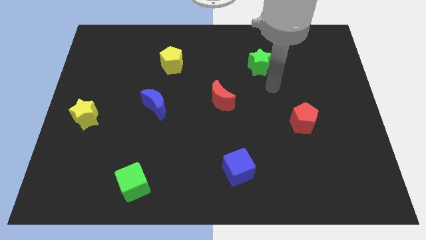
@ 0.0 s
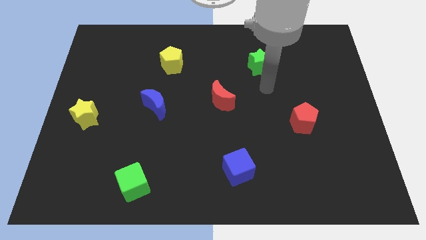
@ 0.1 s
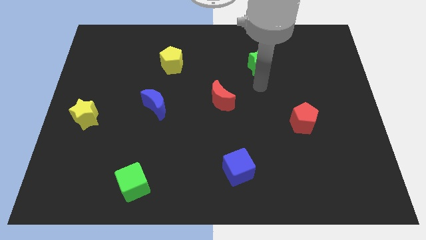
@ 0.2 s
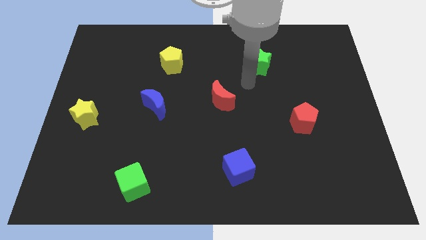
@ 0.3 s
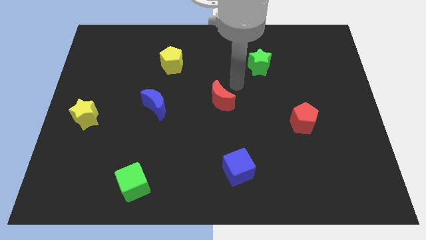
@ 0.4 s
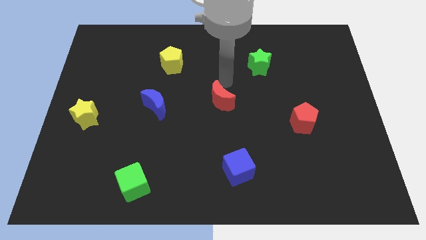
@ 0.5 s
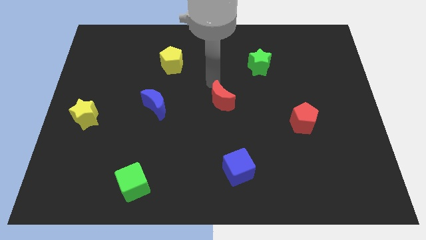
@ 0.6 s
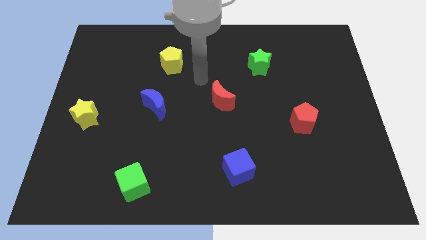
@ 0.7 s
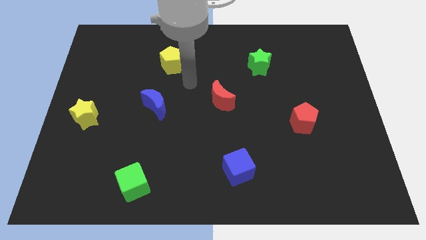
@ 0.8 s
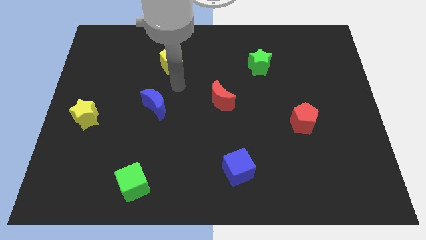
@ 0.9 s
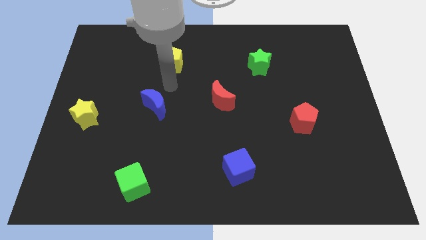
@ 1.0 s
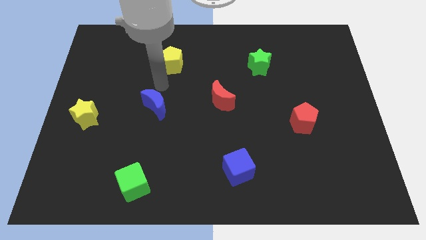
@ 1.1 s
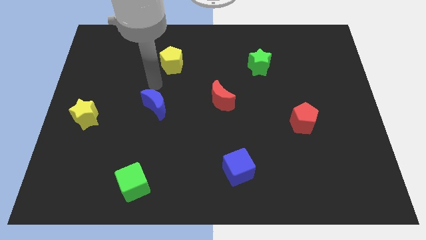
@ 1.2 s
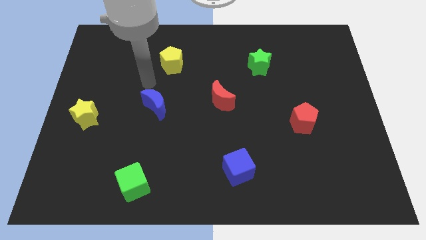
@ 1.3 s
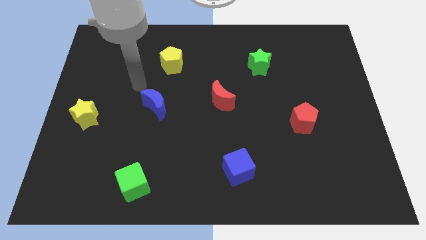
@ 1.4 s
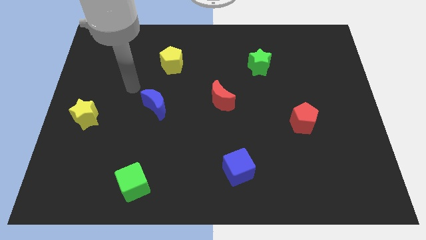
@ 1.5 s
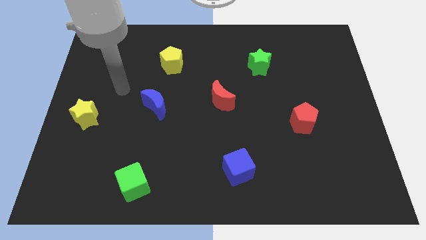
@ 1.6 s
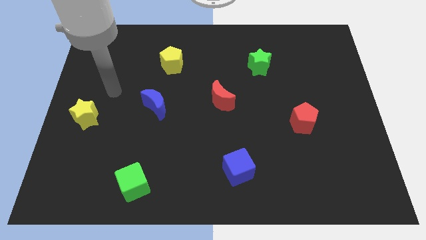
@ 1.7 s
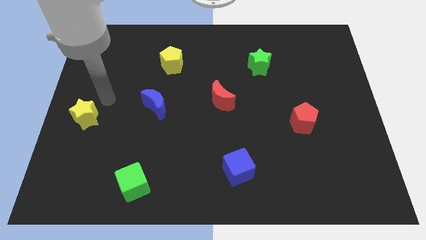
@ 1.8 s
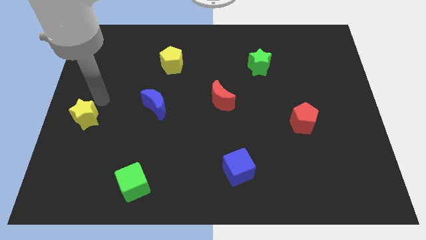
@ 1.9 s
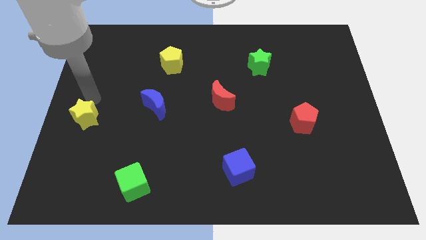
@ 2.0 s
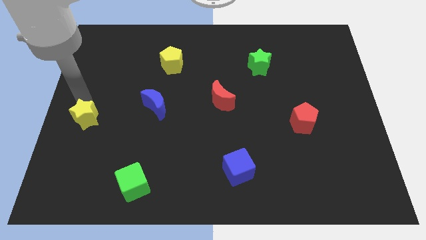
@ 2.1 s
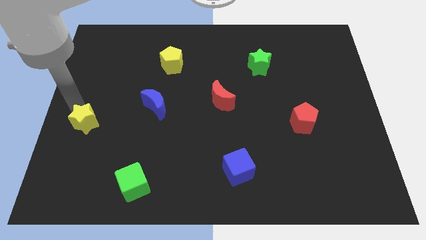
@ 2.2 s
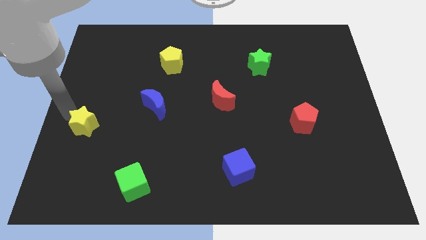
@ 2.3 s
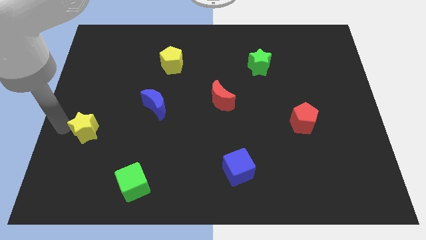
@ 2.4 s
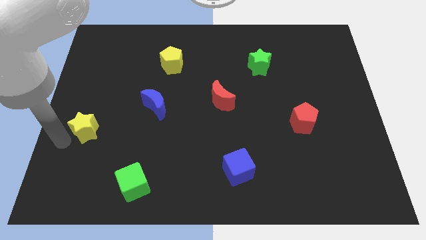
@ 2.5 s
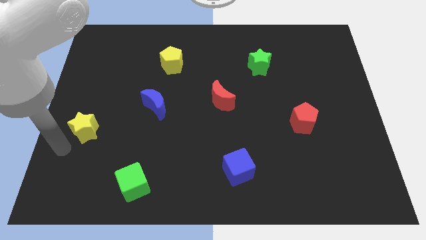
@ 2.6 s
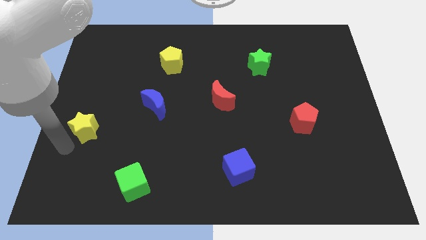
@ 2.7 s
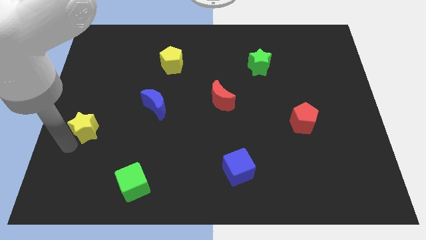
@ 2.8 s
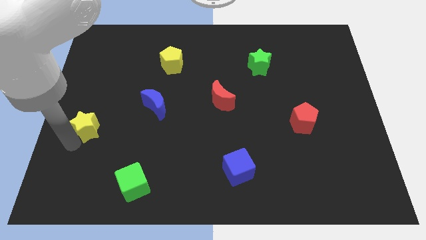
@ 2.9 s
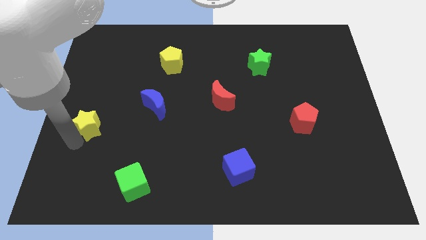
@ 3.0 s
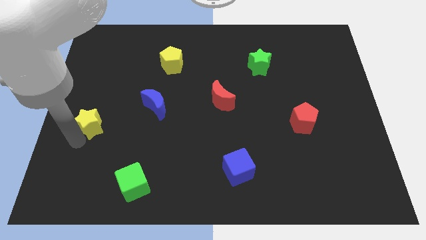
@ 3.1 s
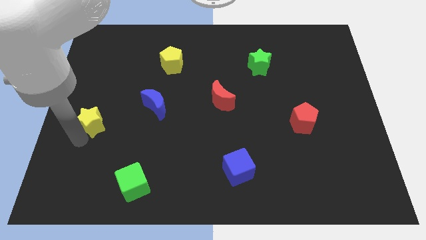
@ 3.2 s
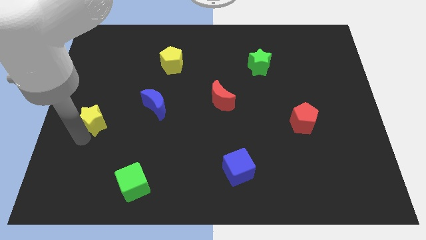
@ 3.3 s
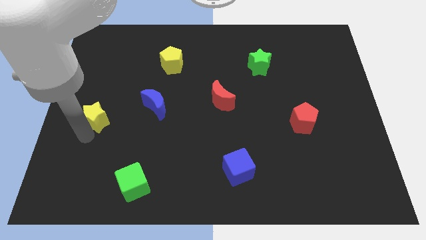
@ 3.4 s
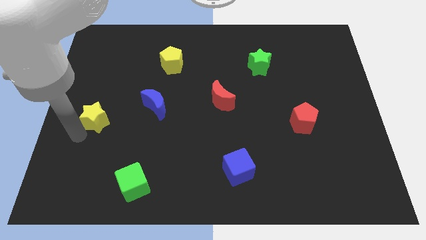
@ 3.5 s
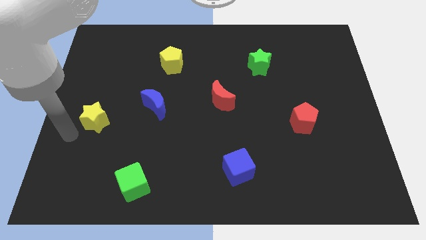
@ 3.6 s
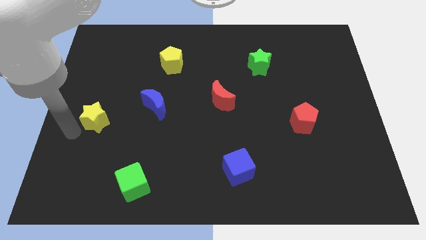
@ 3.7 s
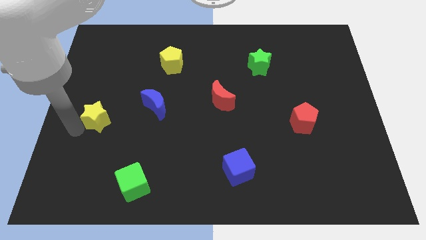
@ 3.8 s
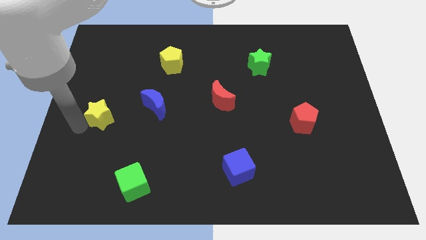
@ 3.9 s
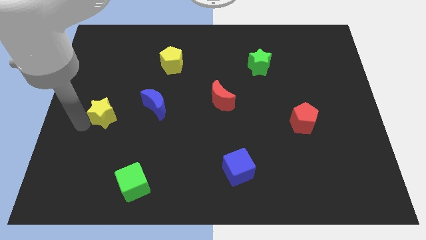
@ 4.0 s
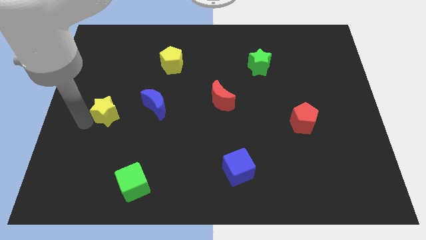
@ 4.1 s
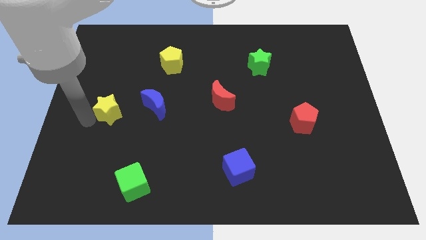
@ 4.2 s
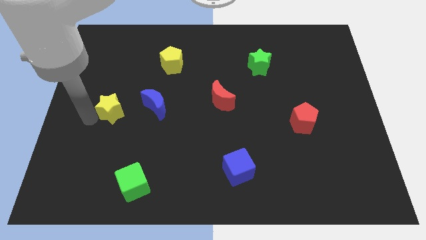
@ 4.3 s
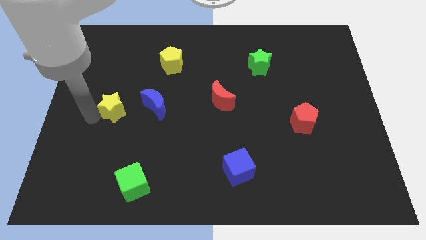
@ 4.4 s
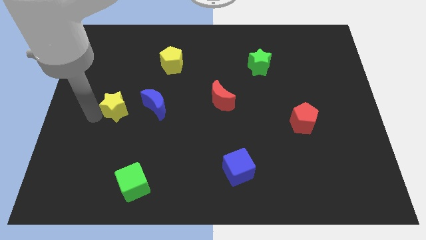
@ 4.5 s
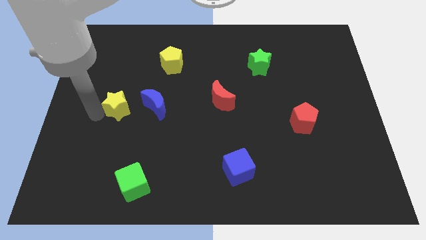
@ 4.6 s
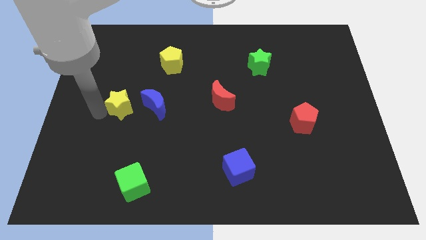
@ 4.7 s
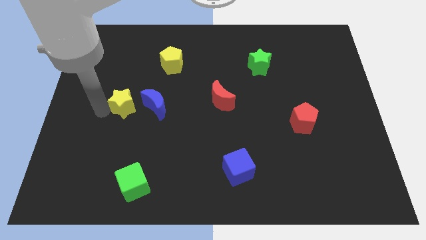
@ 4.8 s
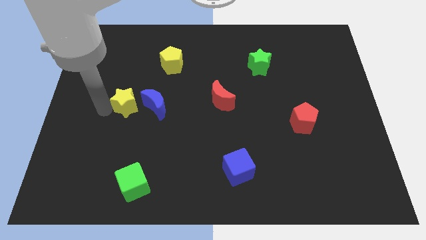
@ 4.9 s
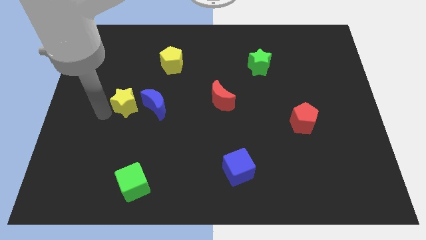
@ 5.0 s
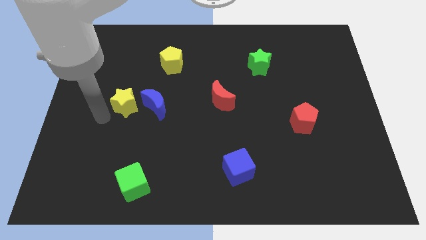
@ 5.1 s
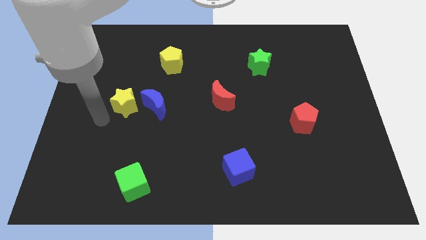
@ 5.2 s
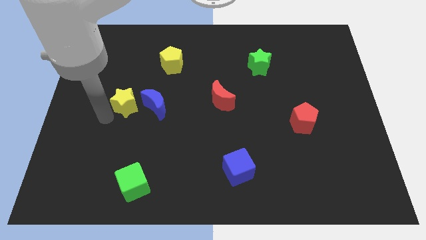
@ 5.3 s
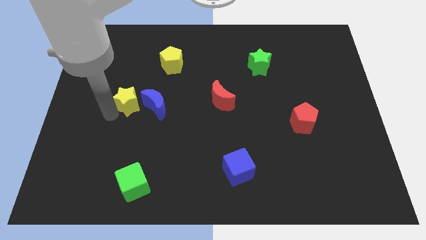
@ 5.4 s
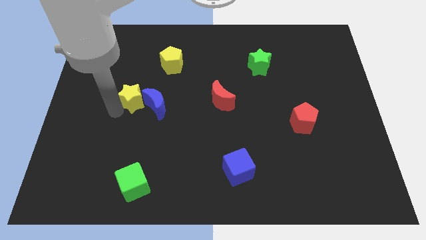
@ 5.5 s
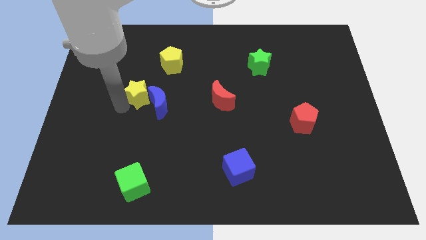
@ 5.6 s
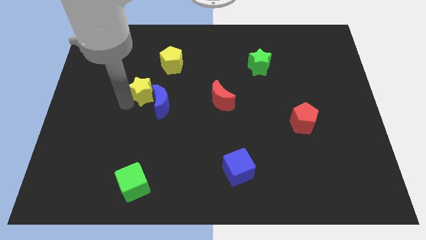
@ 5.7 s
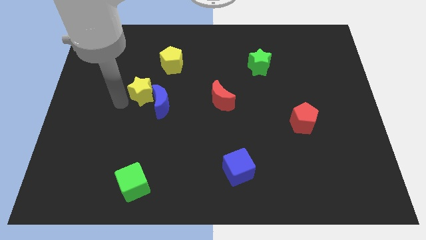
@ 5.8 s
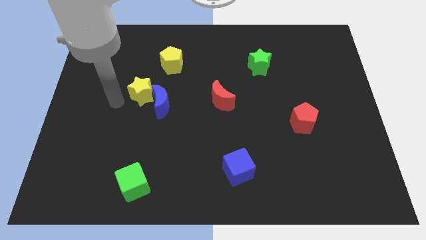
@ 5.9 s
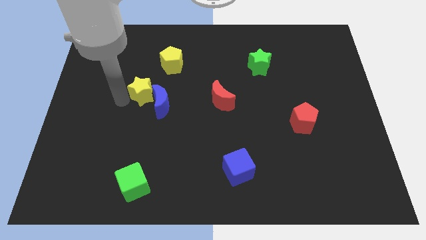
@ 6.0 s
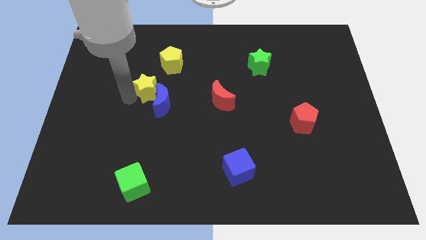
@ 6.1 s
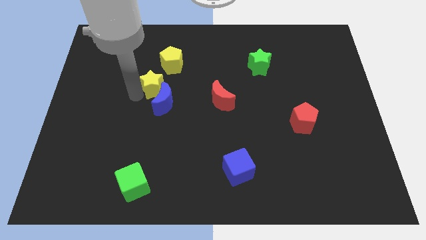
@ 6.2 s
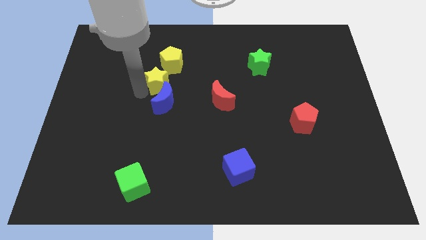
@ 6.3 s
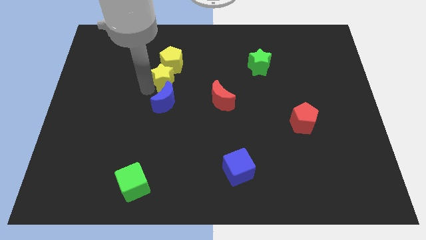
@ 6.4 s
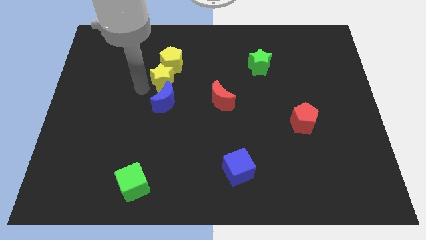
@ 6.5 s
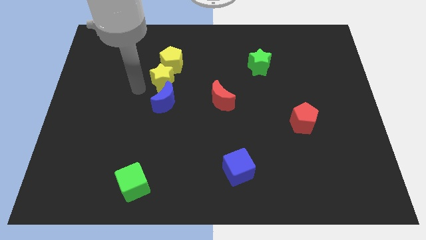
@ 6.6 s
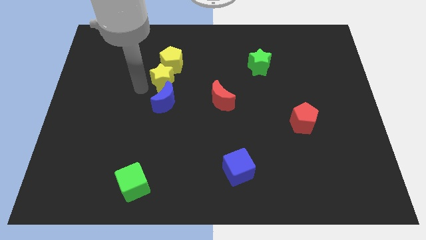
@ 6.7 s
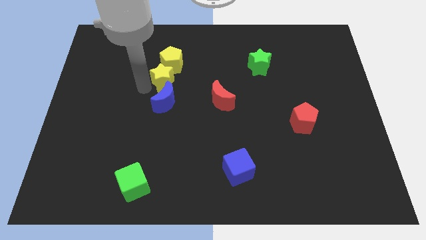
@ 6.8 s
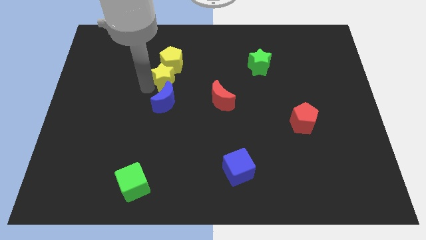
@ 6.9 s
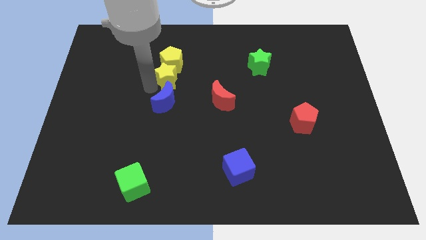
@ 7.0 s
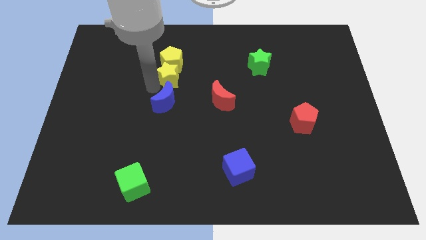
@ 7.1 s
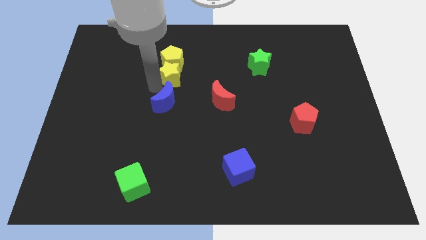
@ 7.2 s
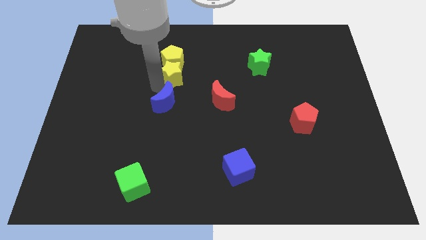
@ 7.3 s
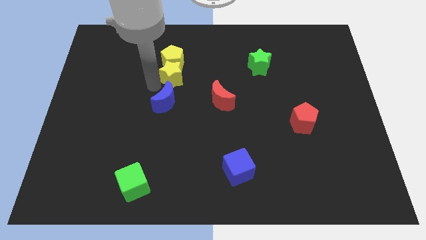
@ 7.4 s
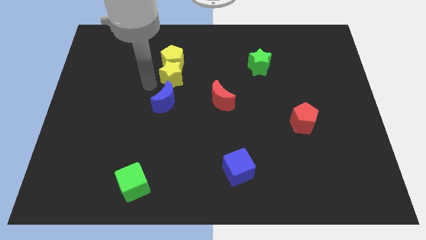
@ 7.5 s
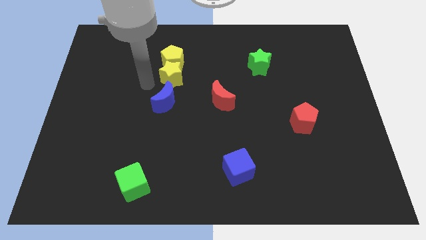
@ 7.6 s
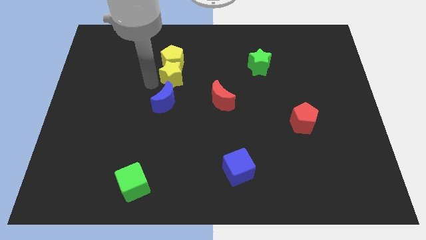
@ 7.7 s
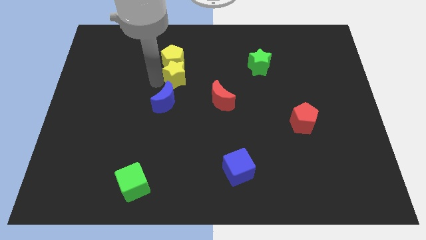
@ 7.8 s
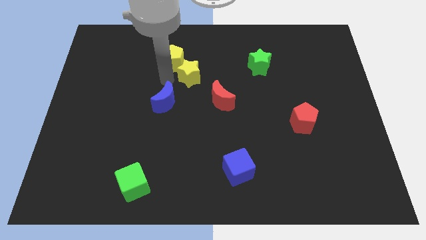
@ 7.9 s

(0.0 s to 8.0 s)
move the yellow star to the right side of the yellow pentagon
